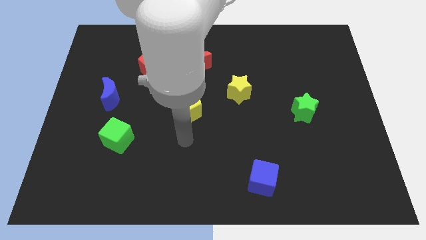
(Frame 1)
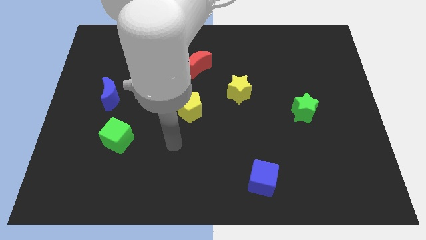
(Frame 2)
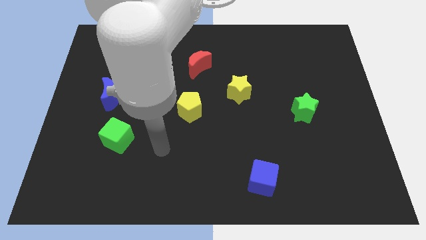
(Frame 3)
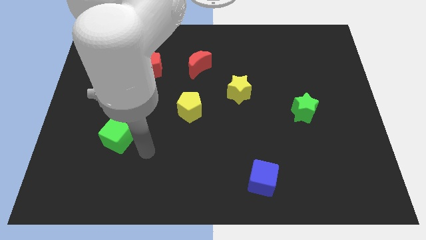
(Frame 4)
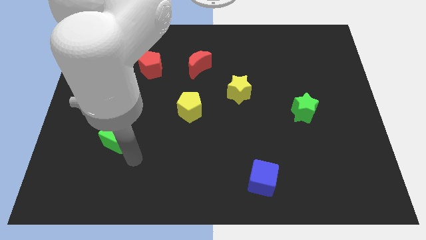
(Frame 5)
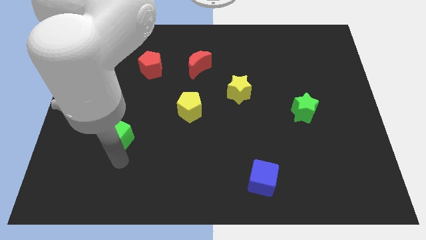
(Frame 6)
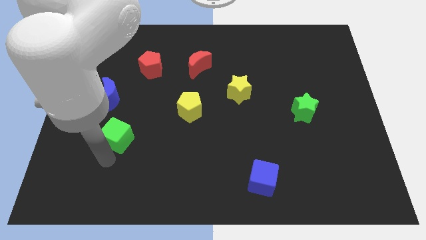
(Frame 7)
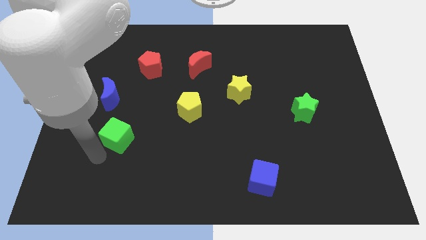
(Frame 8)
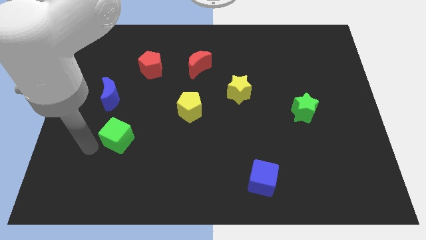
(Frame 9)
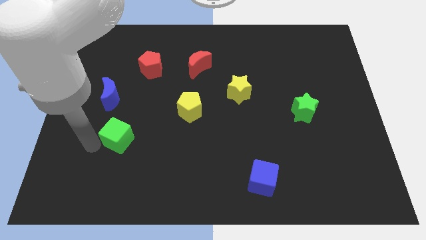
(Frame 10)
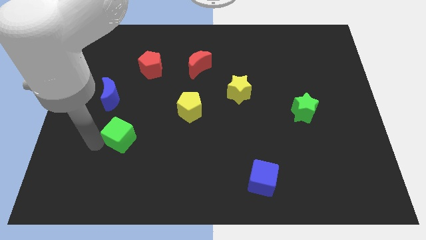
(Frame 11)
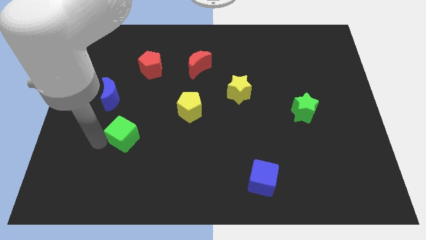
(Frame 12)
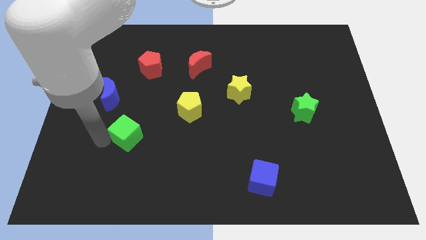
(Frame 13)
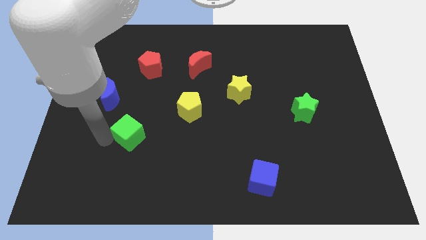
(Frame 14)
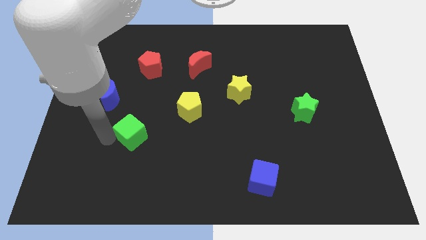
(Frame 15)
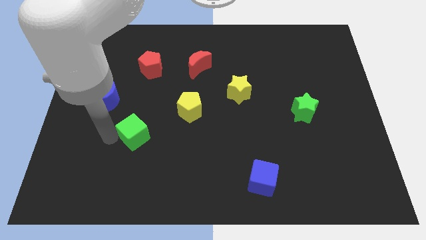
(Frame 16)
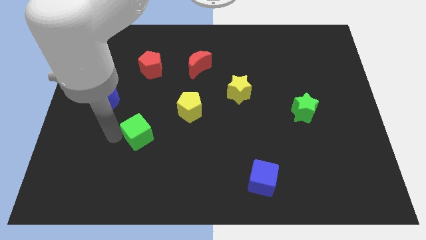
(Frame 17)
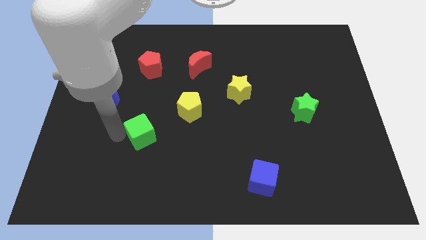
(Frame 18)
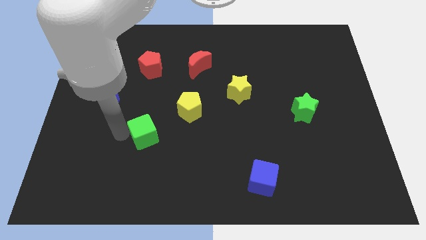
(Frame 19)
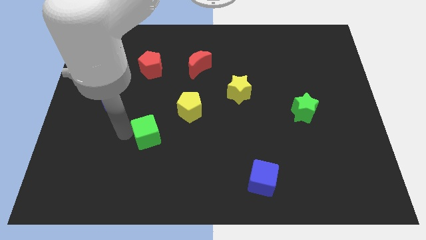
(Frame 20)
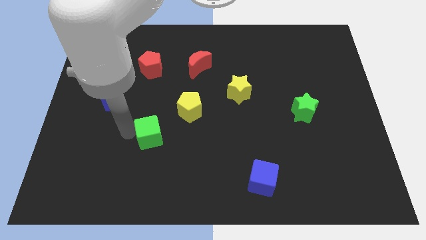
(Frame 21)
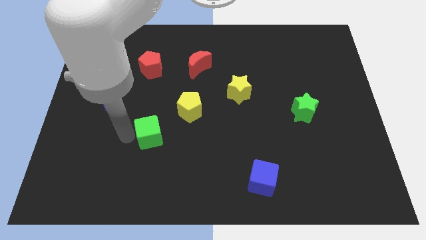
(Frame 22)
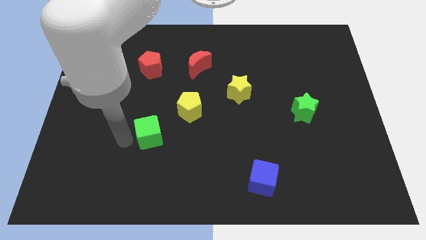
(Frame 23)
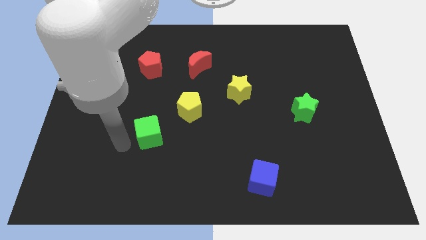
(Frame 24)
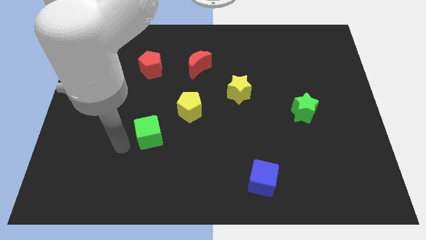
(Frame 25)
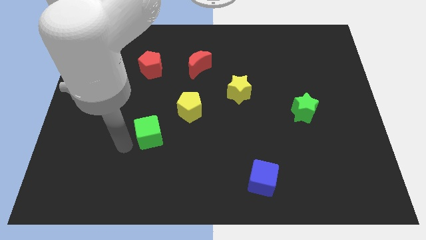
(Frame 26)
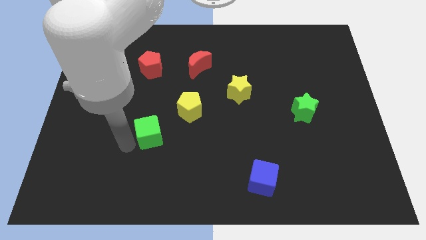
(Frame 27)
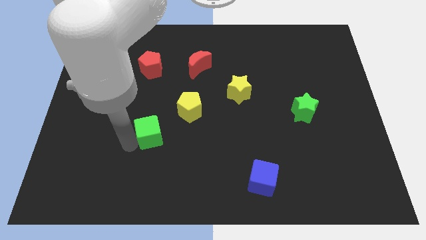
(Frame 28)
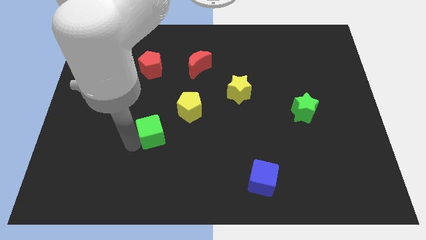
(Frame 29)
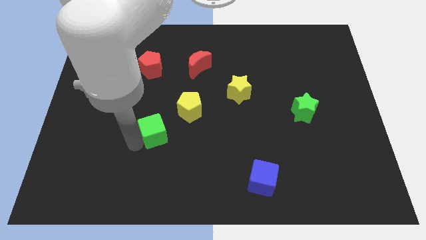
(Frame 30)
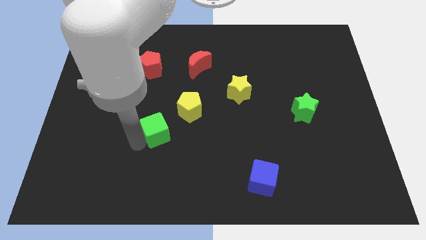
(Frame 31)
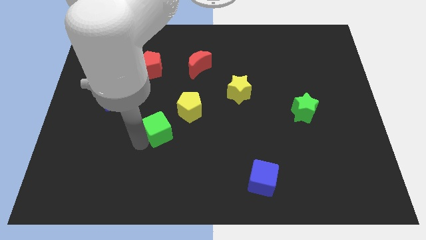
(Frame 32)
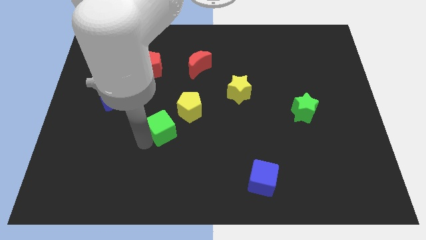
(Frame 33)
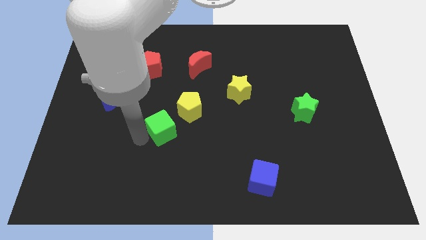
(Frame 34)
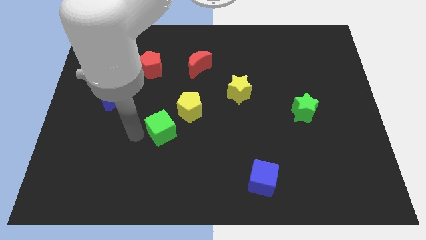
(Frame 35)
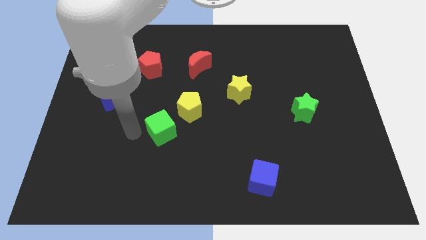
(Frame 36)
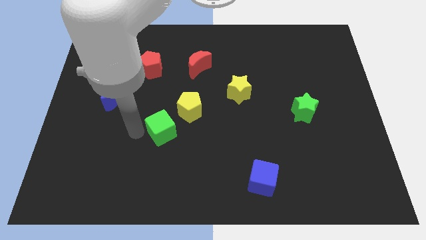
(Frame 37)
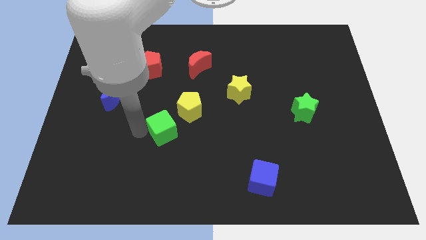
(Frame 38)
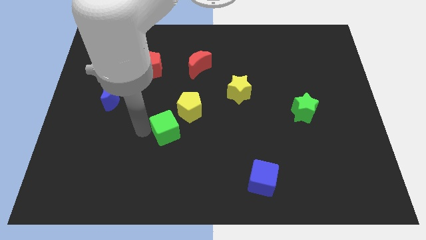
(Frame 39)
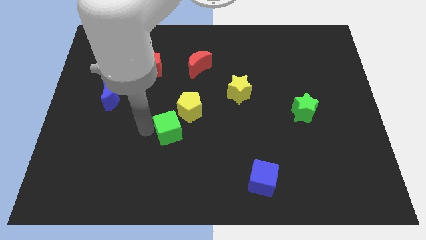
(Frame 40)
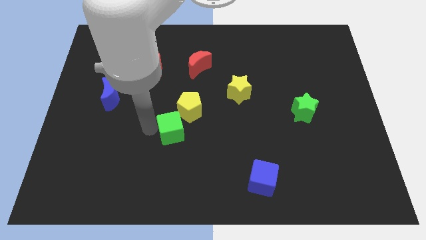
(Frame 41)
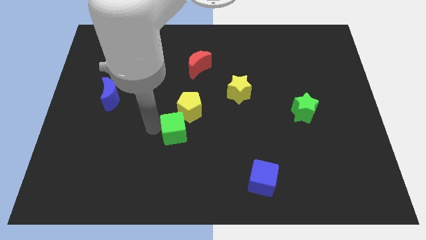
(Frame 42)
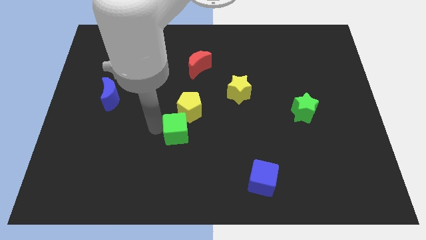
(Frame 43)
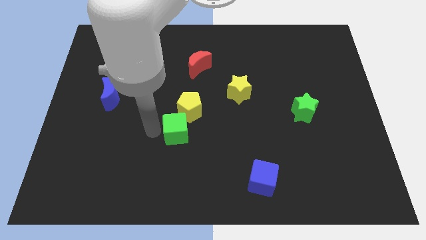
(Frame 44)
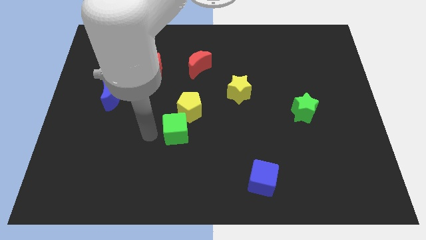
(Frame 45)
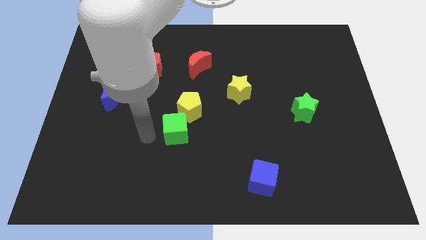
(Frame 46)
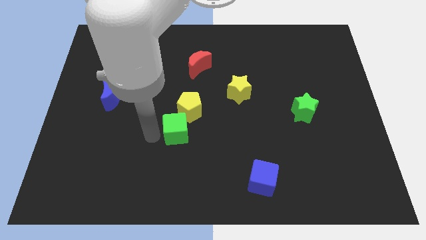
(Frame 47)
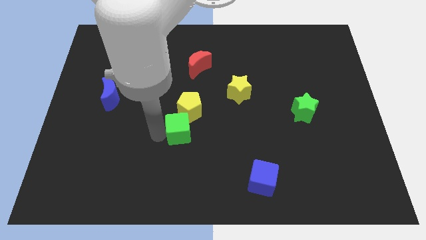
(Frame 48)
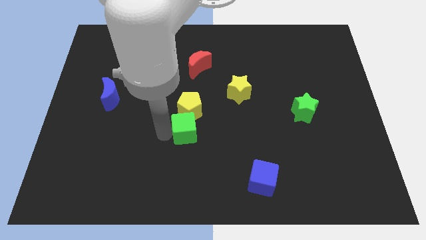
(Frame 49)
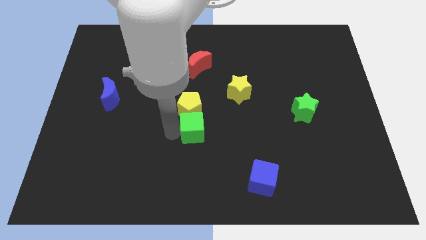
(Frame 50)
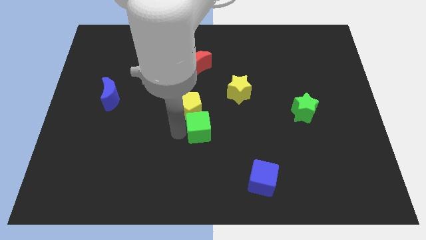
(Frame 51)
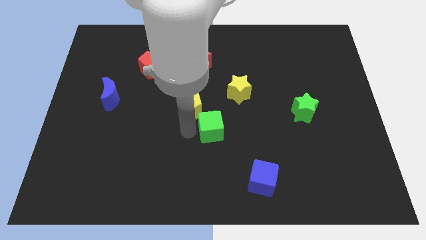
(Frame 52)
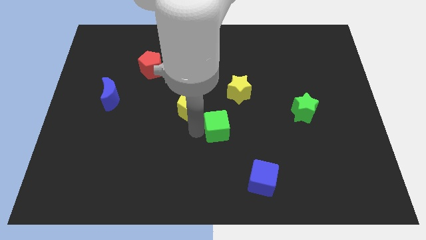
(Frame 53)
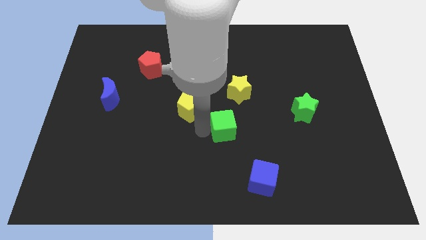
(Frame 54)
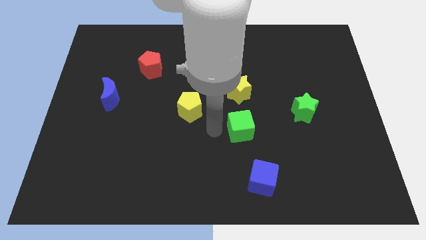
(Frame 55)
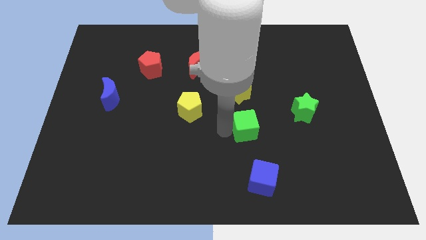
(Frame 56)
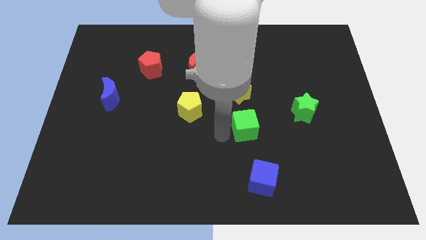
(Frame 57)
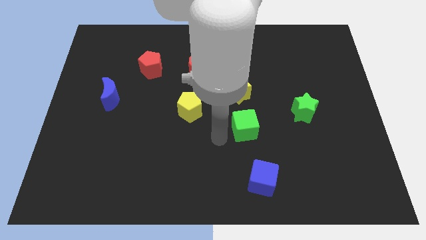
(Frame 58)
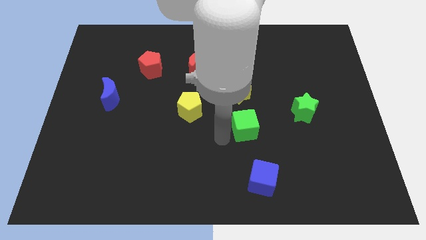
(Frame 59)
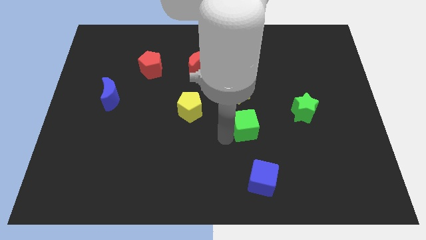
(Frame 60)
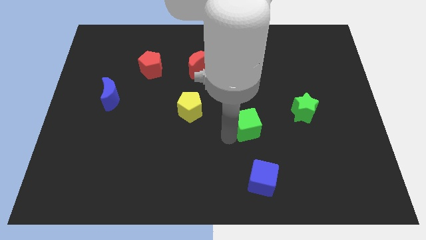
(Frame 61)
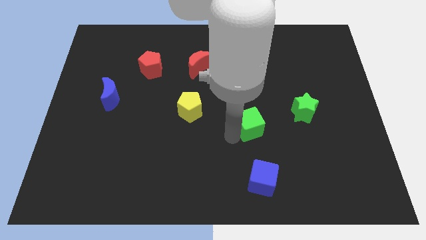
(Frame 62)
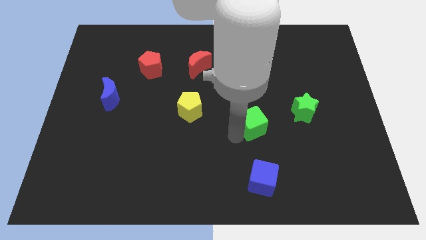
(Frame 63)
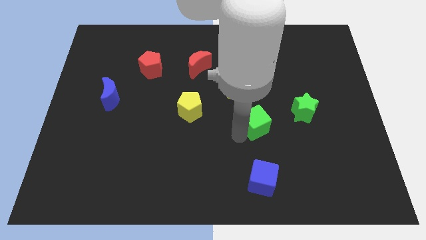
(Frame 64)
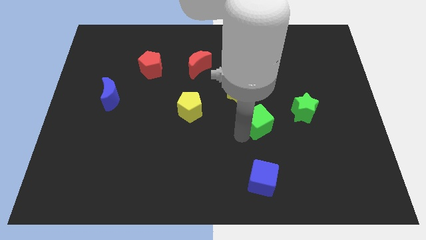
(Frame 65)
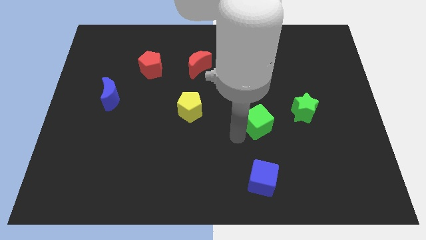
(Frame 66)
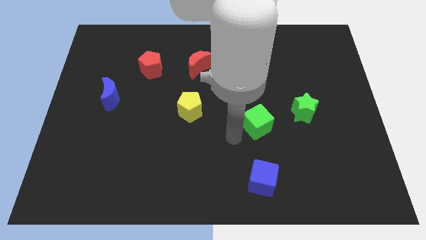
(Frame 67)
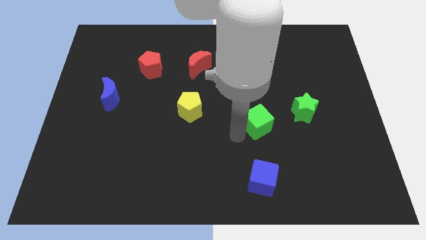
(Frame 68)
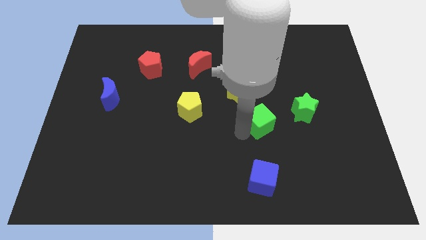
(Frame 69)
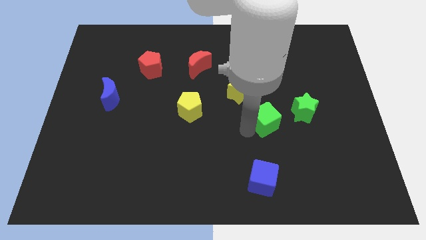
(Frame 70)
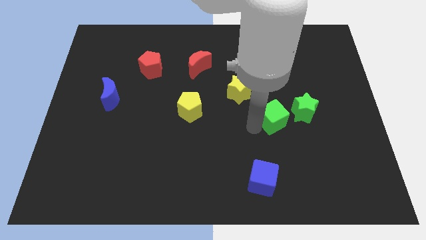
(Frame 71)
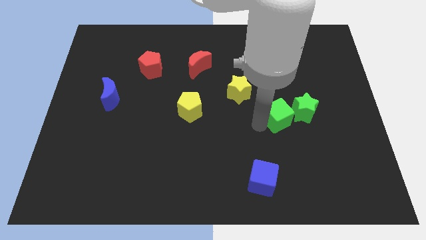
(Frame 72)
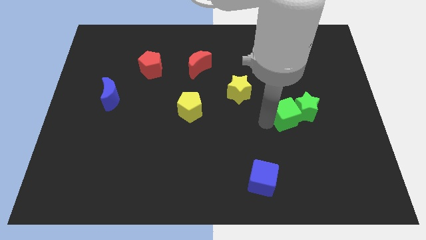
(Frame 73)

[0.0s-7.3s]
push the green cube towards the green star

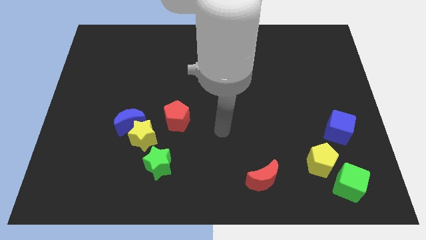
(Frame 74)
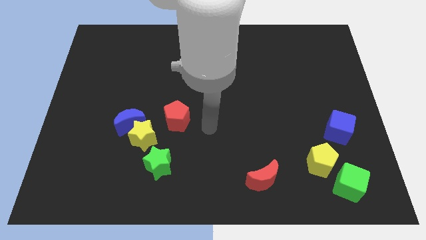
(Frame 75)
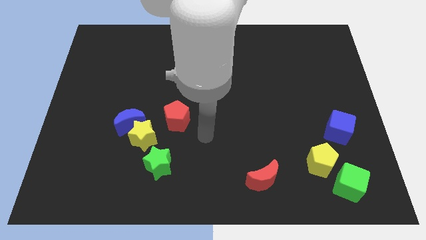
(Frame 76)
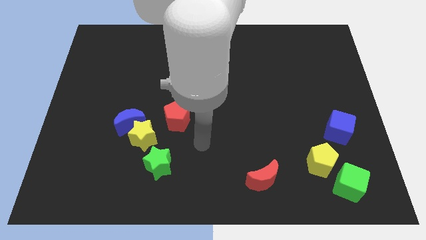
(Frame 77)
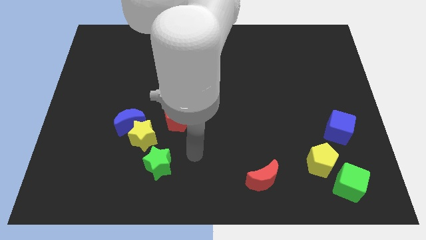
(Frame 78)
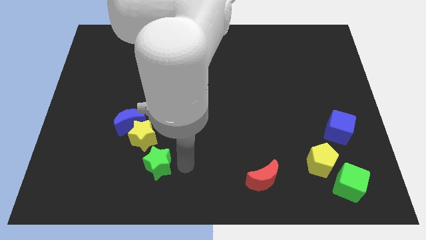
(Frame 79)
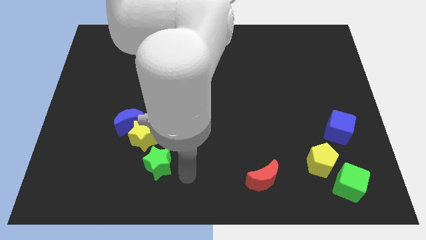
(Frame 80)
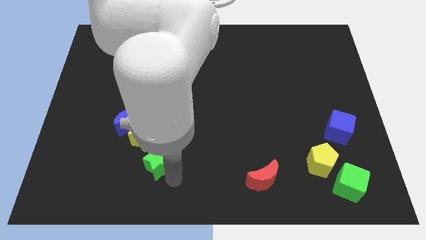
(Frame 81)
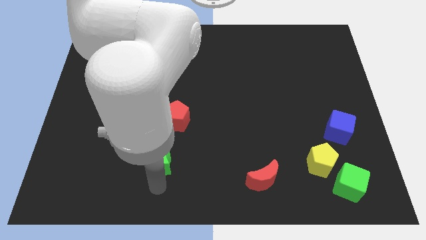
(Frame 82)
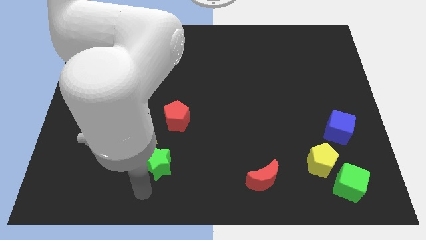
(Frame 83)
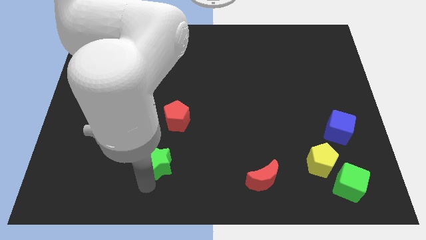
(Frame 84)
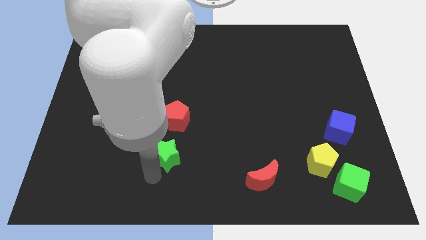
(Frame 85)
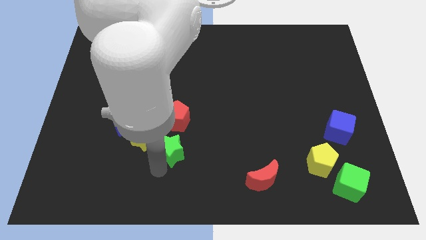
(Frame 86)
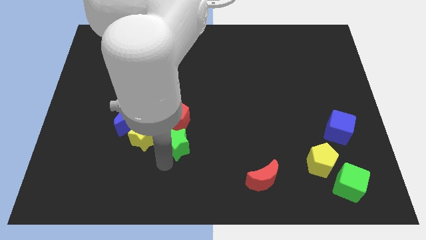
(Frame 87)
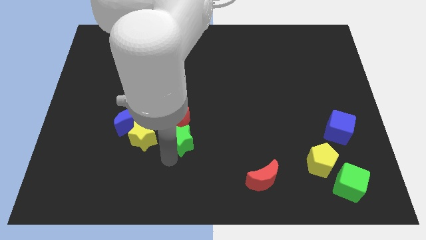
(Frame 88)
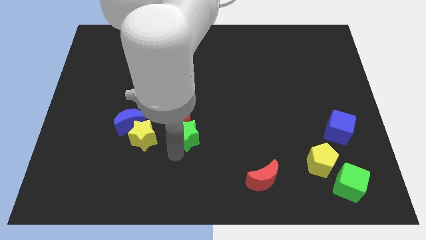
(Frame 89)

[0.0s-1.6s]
put the green star close to the red pentagon
